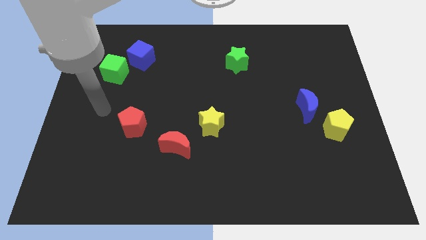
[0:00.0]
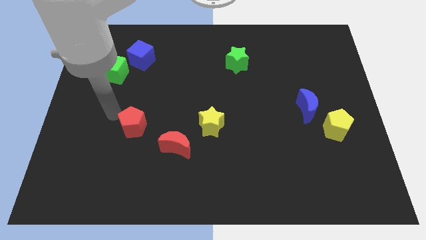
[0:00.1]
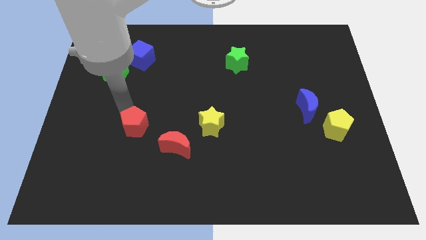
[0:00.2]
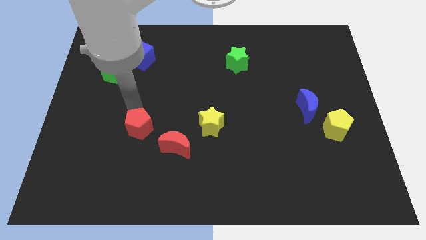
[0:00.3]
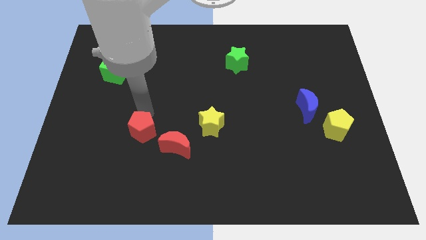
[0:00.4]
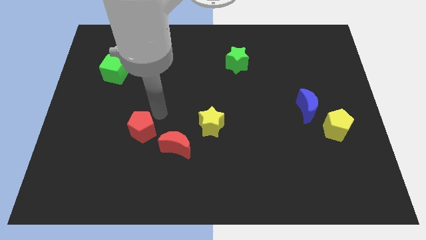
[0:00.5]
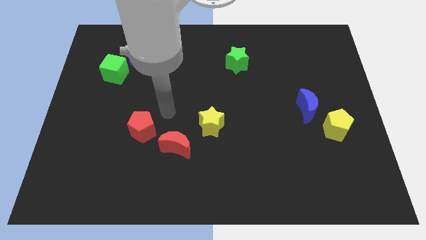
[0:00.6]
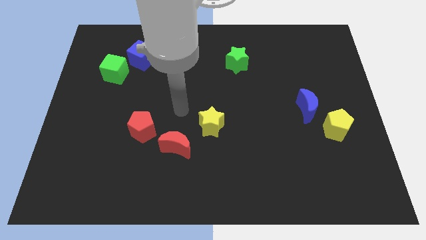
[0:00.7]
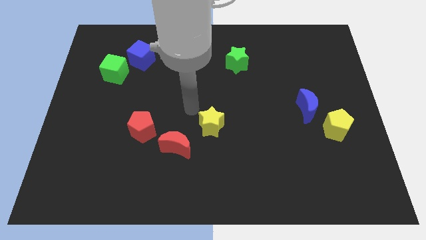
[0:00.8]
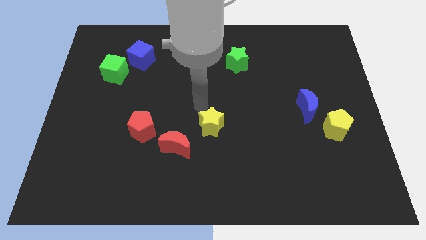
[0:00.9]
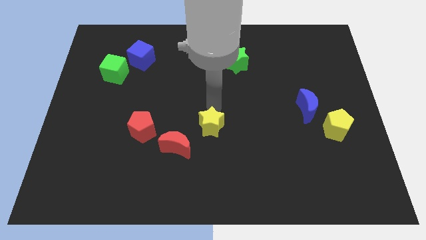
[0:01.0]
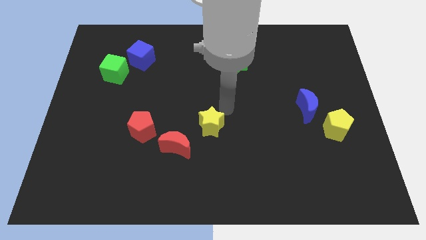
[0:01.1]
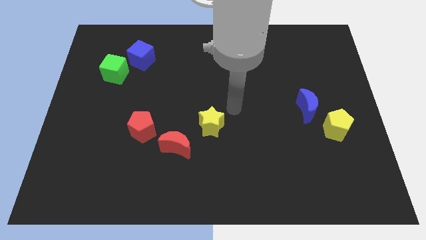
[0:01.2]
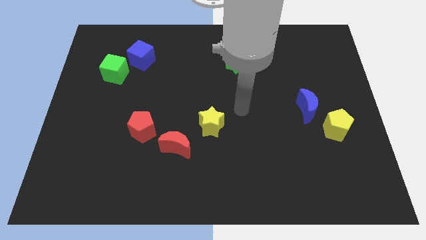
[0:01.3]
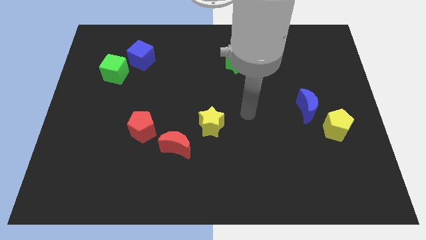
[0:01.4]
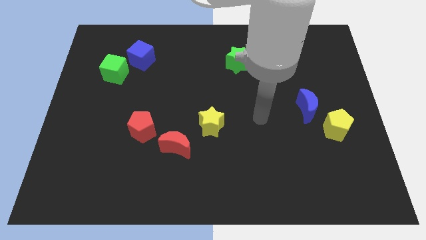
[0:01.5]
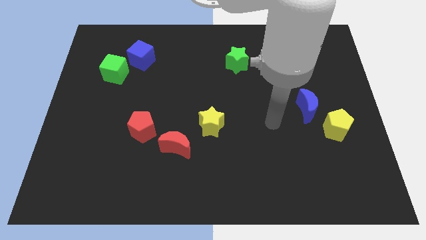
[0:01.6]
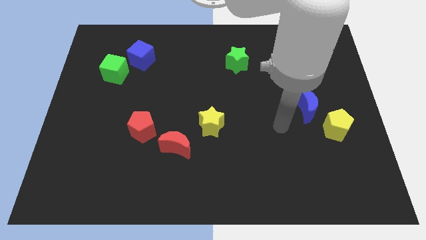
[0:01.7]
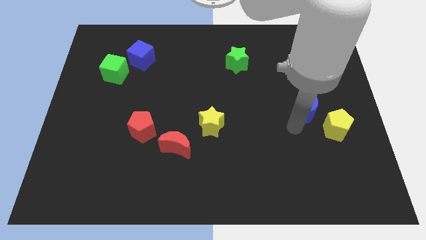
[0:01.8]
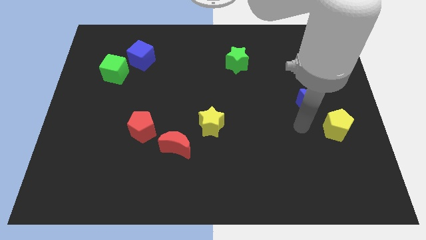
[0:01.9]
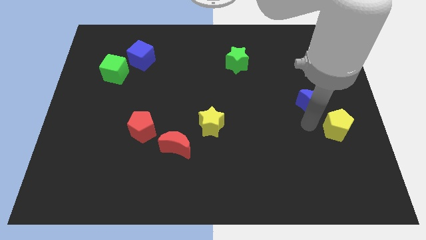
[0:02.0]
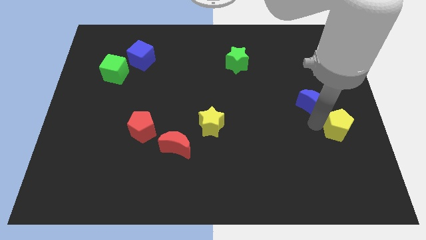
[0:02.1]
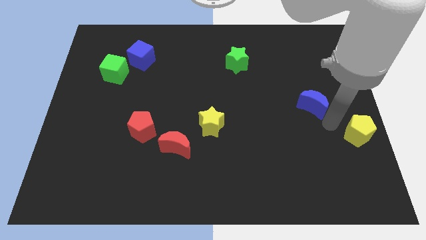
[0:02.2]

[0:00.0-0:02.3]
separate the blue moon from the yellow pentagon

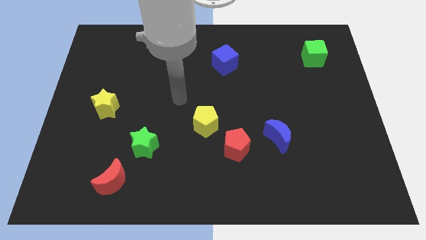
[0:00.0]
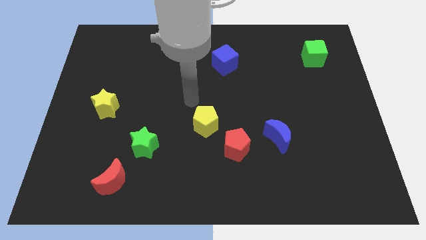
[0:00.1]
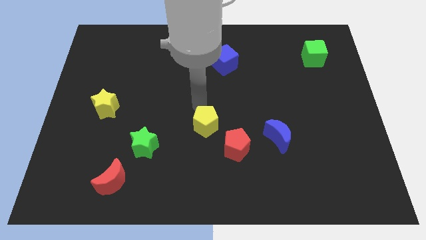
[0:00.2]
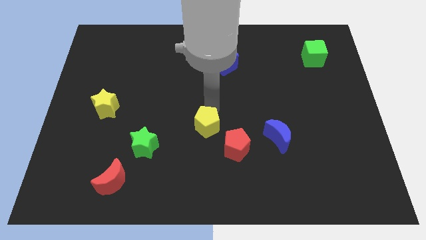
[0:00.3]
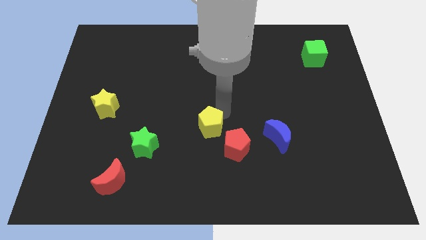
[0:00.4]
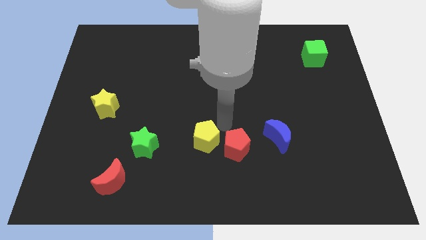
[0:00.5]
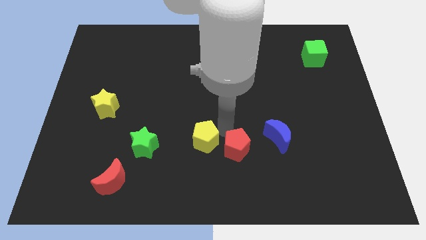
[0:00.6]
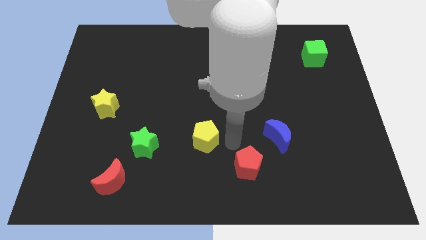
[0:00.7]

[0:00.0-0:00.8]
pull the yellow pentagon apart from the red pentagon

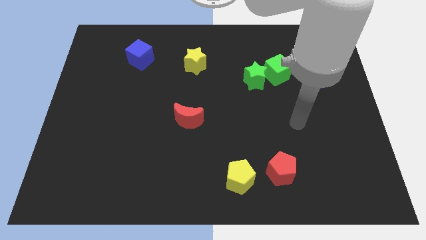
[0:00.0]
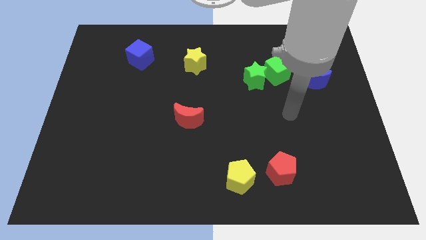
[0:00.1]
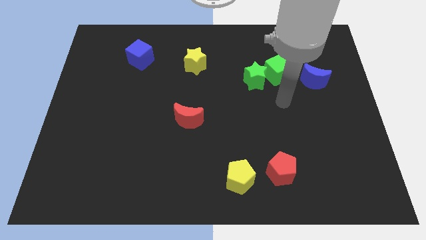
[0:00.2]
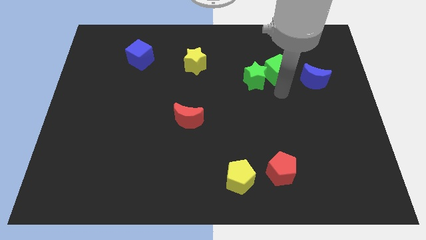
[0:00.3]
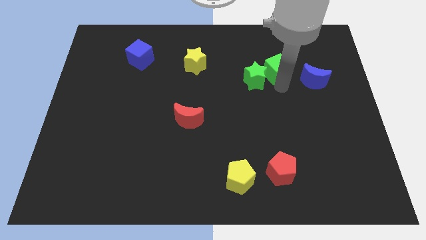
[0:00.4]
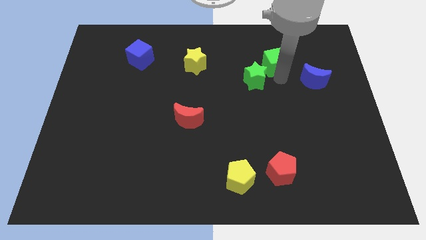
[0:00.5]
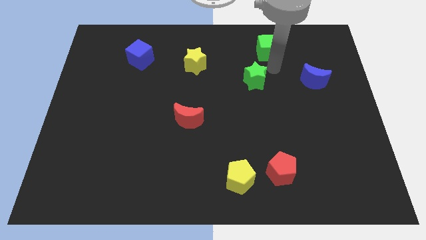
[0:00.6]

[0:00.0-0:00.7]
move the green star away from the green cube

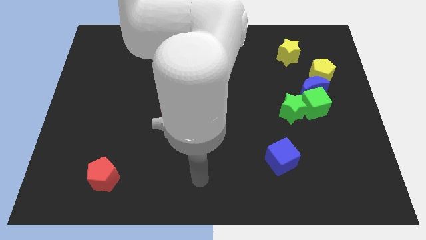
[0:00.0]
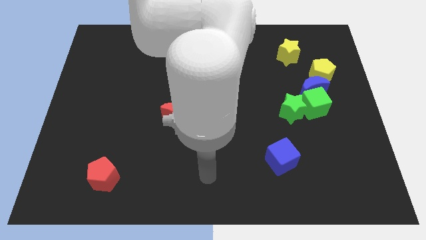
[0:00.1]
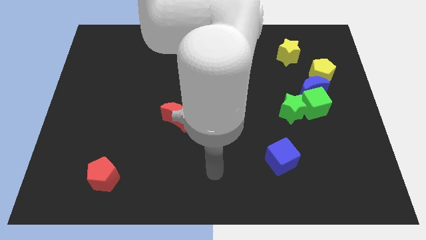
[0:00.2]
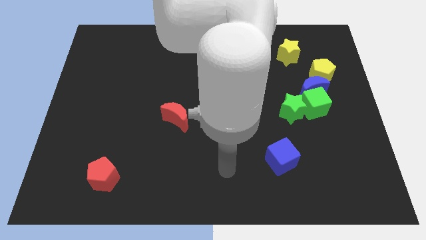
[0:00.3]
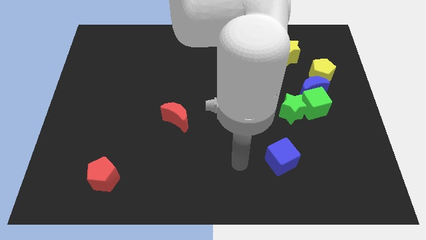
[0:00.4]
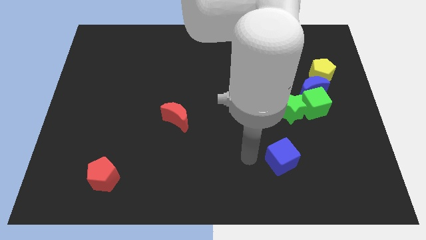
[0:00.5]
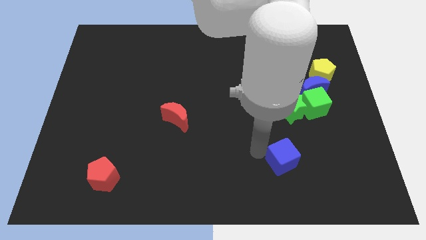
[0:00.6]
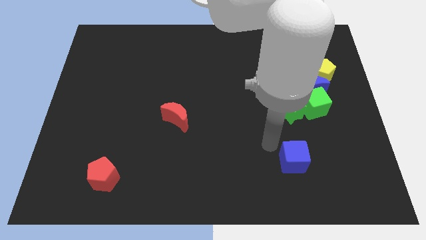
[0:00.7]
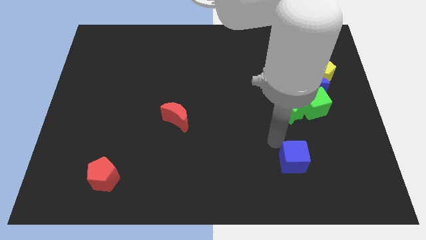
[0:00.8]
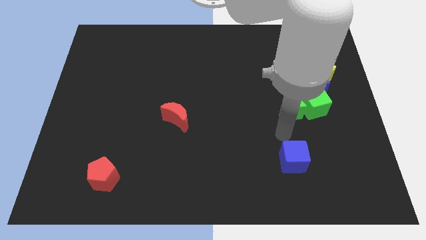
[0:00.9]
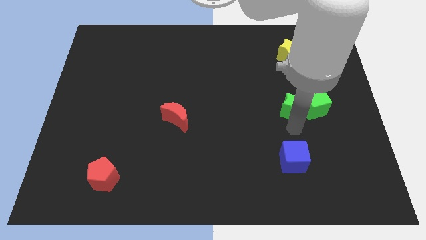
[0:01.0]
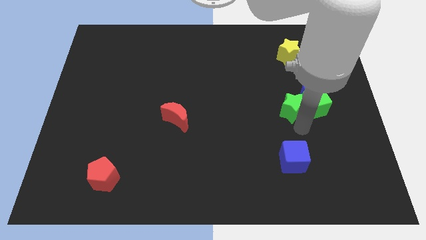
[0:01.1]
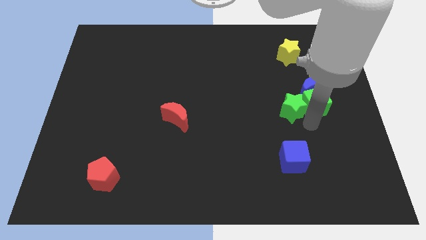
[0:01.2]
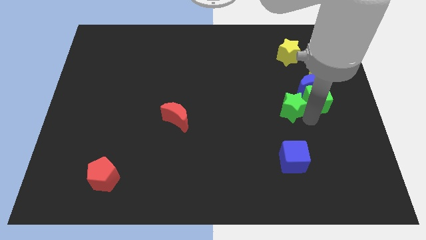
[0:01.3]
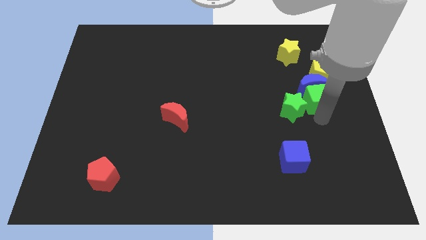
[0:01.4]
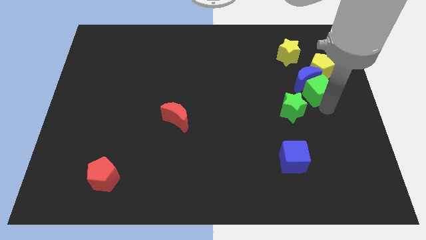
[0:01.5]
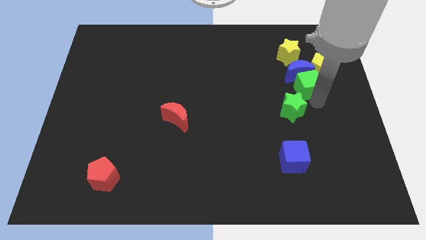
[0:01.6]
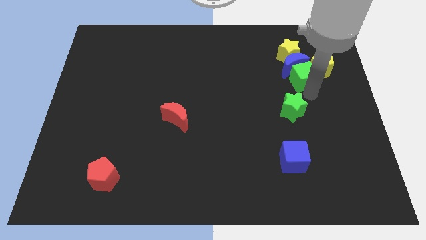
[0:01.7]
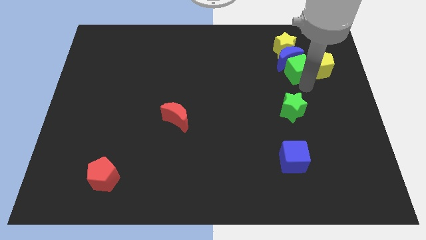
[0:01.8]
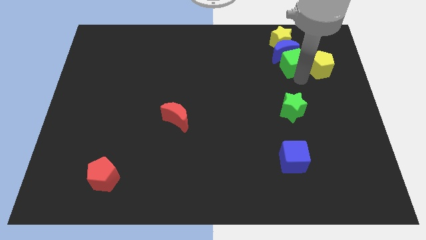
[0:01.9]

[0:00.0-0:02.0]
move the blue moon away from the green cube, yellow pentagon, and green star

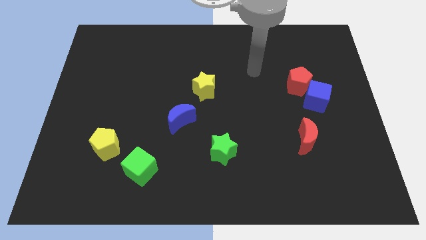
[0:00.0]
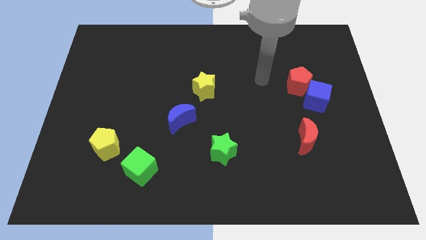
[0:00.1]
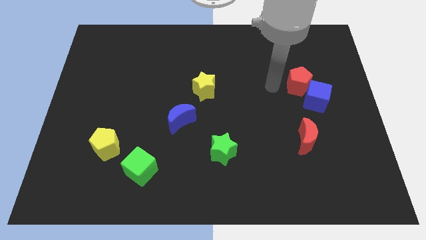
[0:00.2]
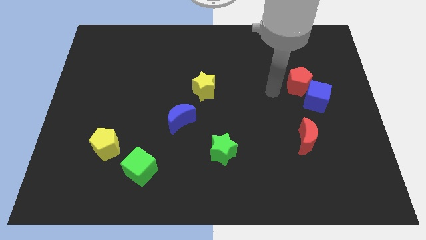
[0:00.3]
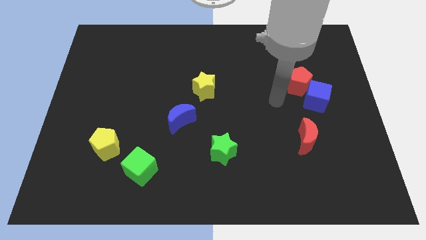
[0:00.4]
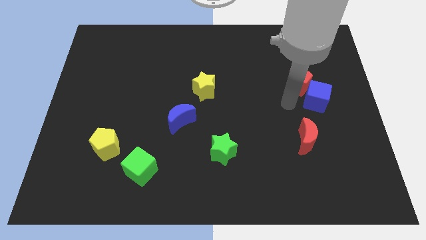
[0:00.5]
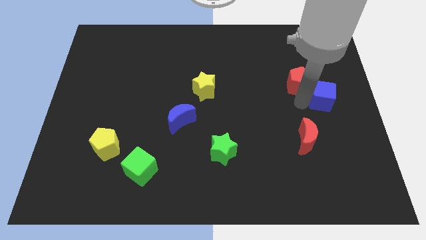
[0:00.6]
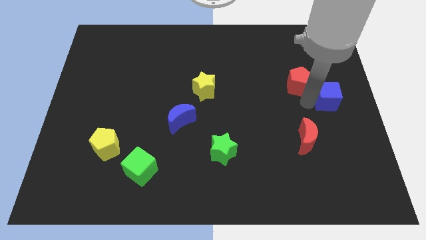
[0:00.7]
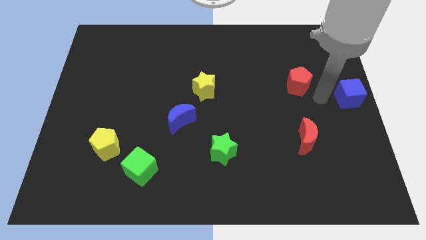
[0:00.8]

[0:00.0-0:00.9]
move the red pentagon away from the blue cube

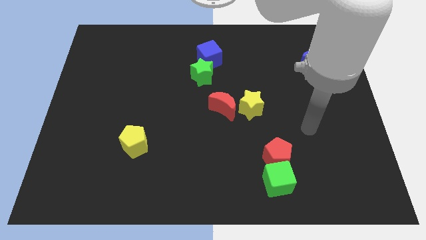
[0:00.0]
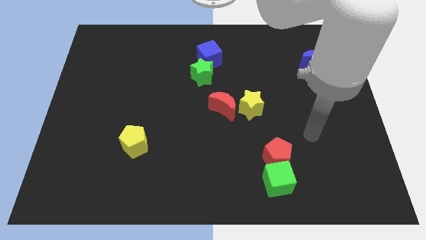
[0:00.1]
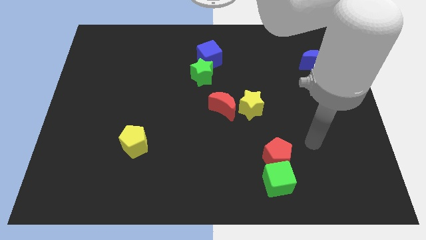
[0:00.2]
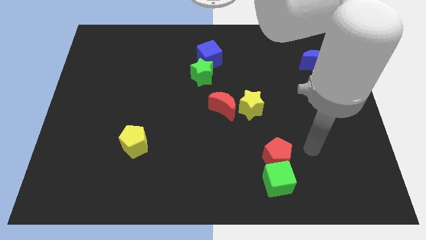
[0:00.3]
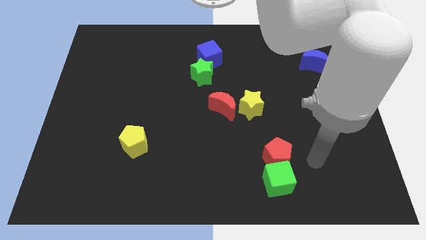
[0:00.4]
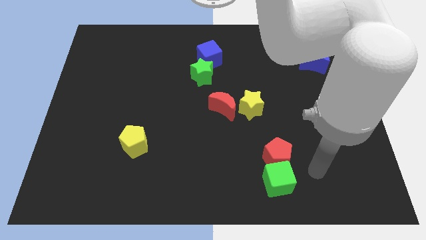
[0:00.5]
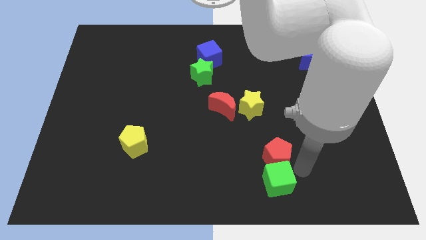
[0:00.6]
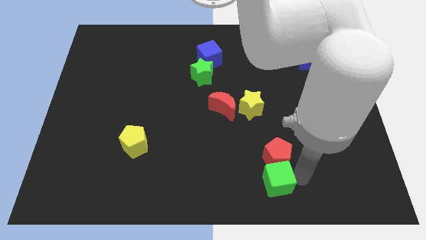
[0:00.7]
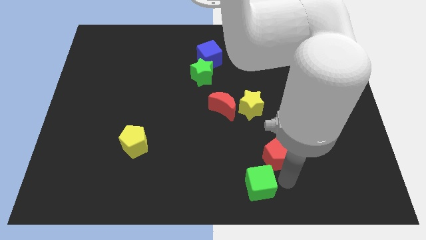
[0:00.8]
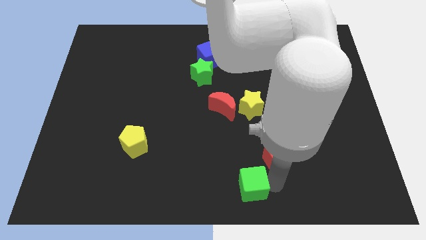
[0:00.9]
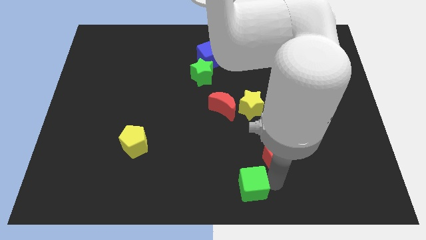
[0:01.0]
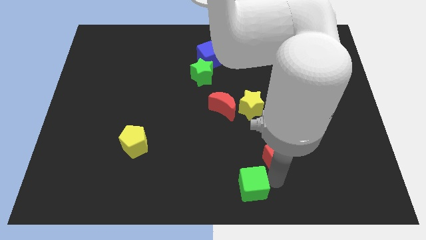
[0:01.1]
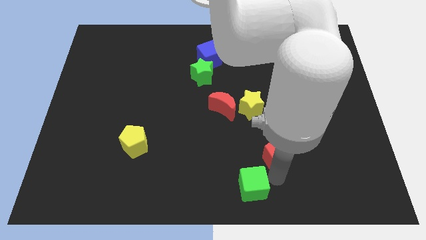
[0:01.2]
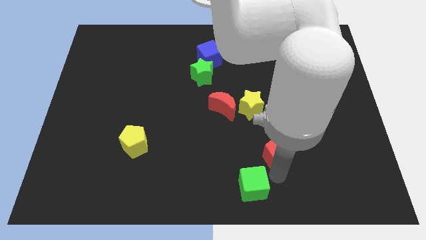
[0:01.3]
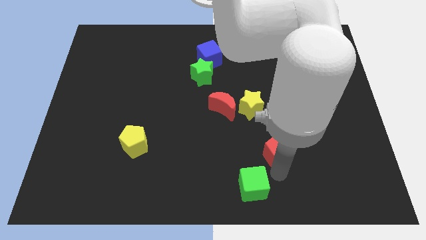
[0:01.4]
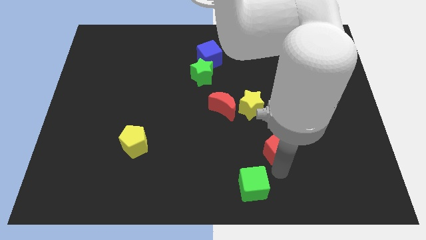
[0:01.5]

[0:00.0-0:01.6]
move the red pentagon away from the green cube

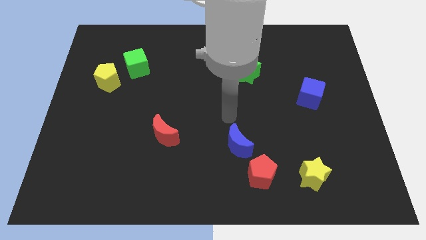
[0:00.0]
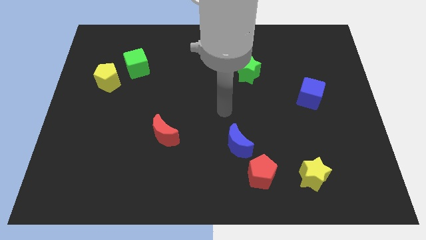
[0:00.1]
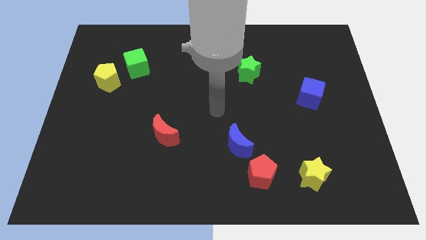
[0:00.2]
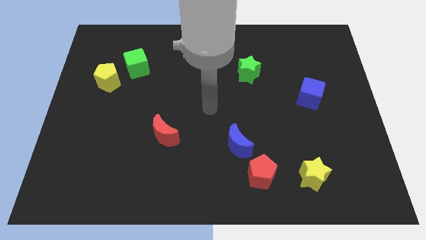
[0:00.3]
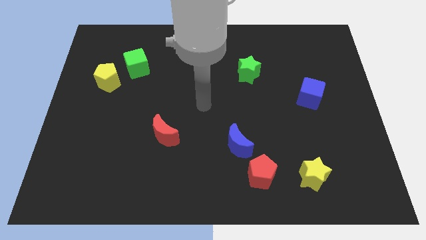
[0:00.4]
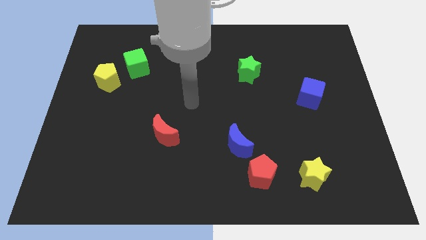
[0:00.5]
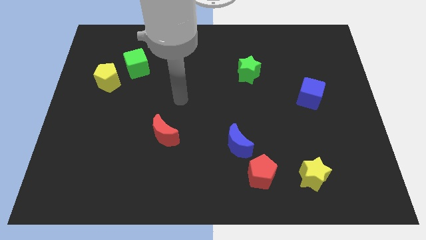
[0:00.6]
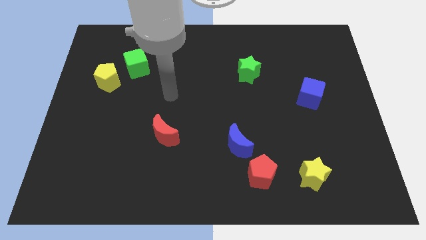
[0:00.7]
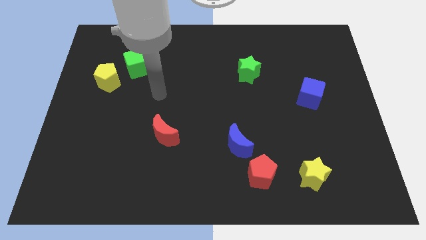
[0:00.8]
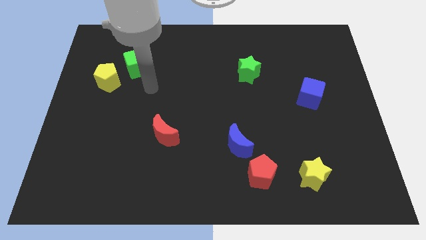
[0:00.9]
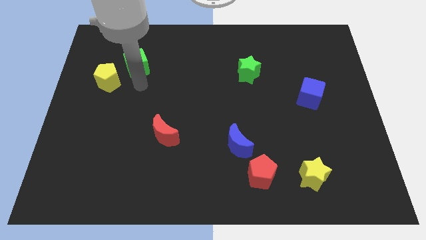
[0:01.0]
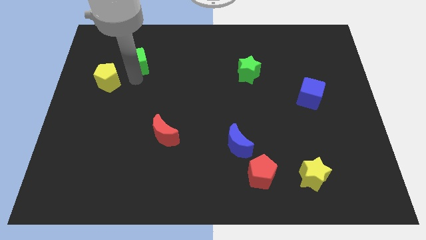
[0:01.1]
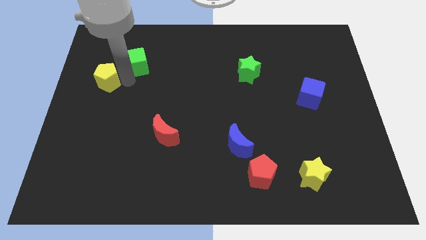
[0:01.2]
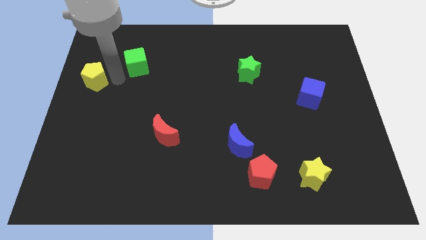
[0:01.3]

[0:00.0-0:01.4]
pull the green cube apart from the yellow pentagon
